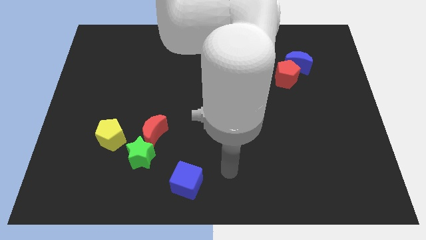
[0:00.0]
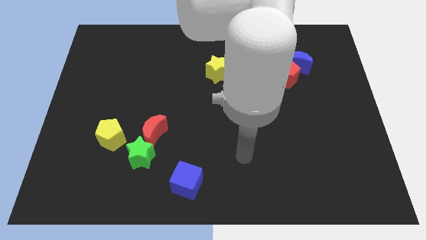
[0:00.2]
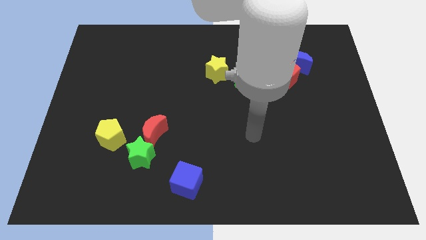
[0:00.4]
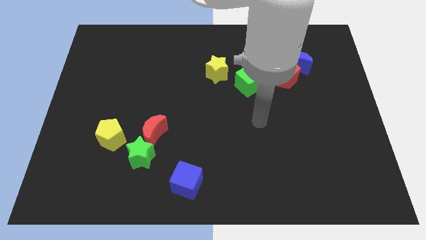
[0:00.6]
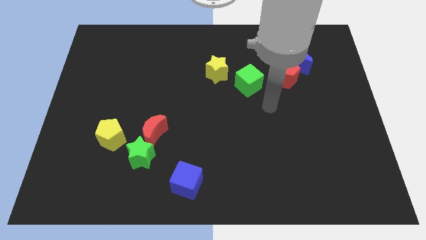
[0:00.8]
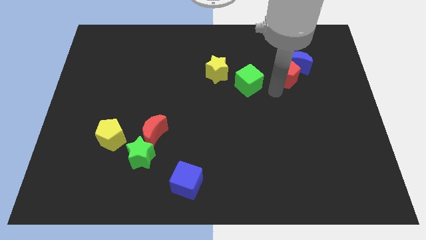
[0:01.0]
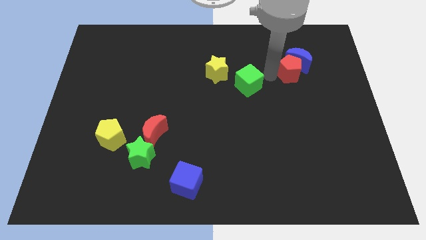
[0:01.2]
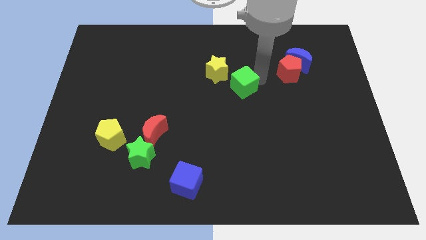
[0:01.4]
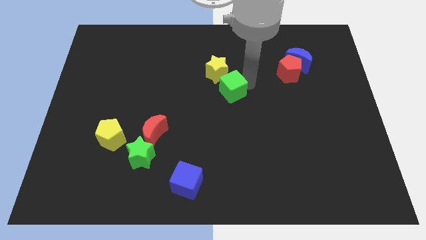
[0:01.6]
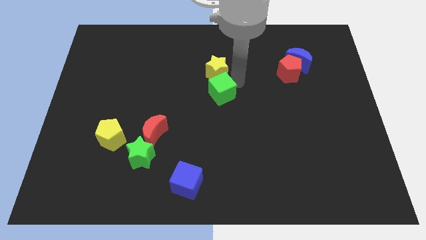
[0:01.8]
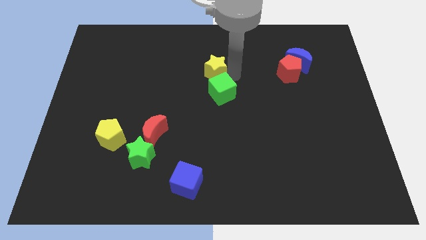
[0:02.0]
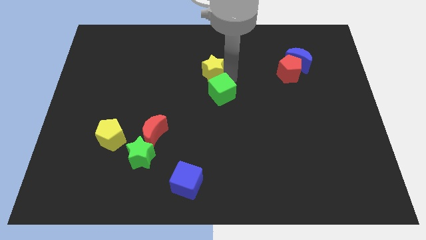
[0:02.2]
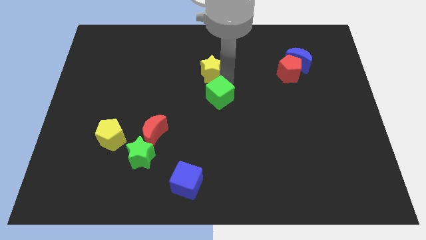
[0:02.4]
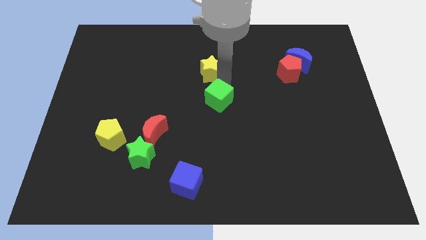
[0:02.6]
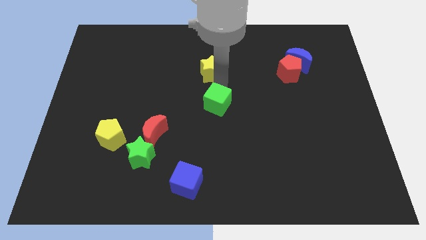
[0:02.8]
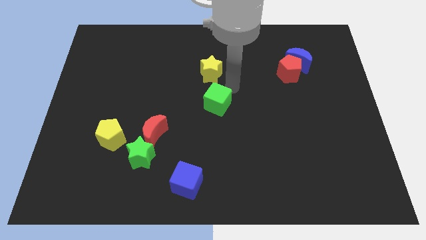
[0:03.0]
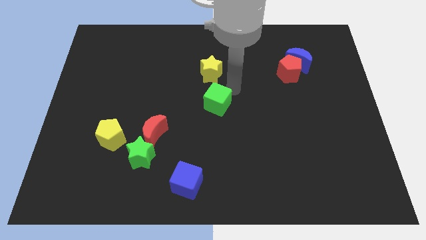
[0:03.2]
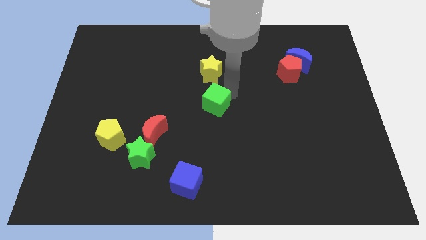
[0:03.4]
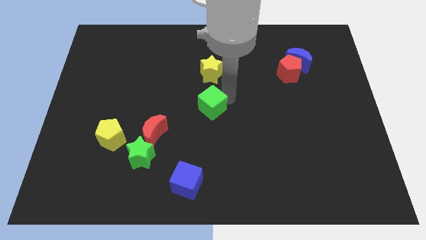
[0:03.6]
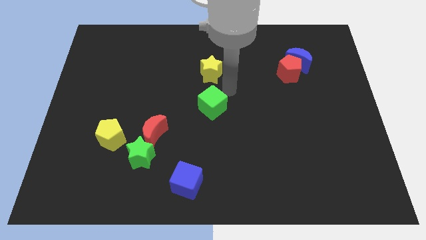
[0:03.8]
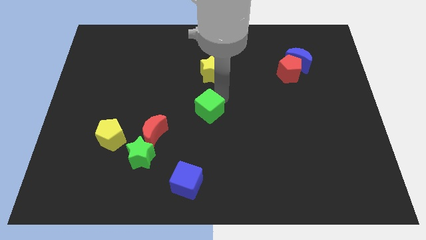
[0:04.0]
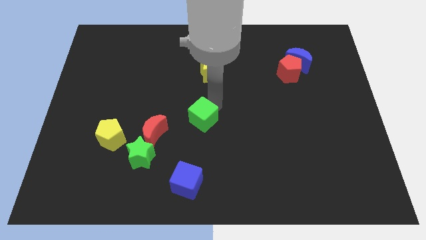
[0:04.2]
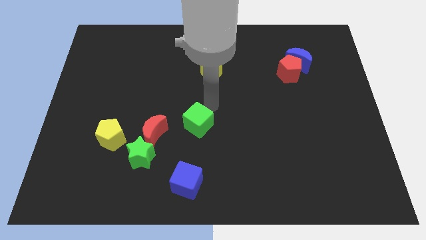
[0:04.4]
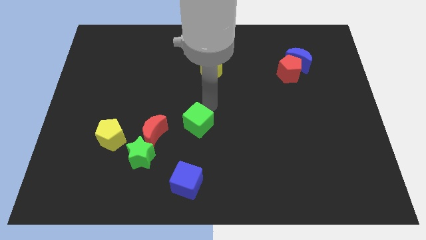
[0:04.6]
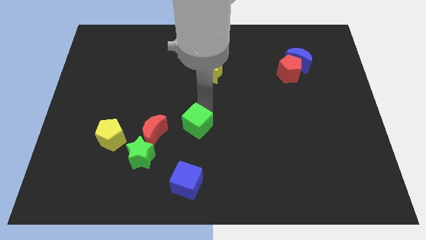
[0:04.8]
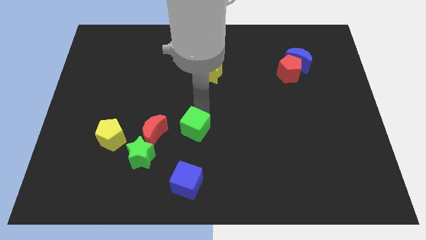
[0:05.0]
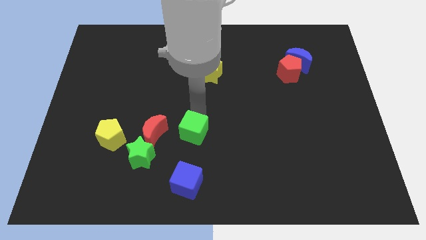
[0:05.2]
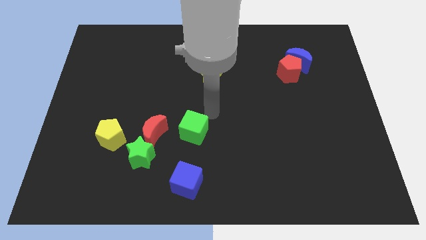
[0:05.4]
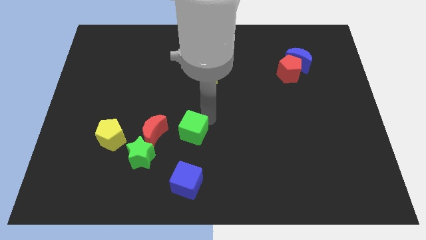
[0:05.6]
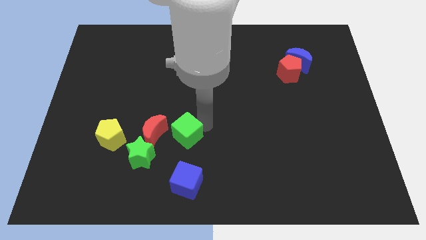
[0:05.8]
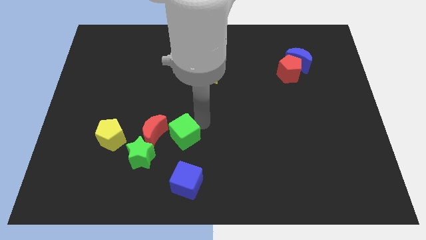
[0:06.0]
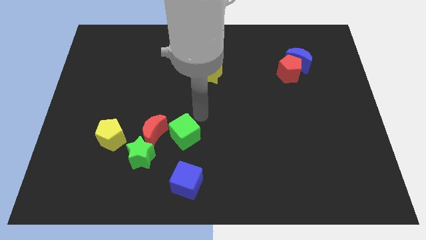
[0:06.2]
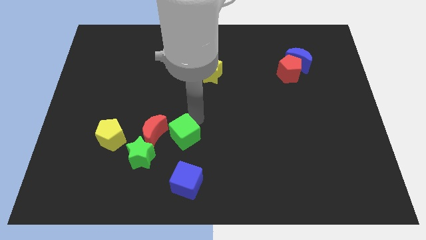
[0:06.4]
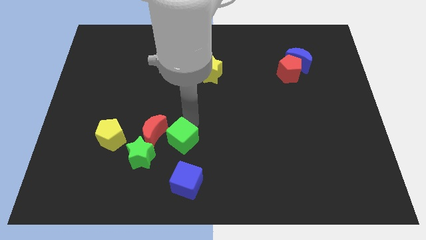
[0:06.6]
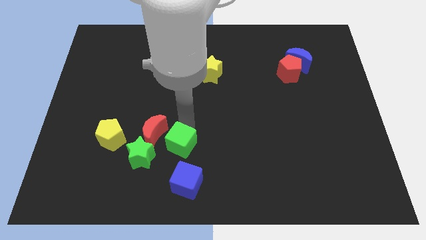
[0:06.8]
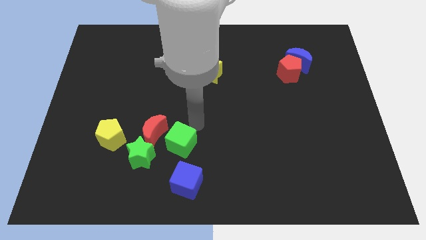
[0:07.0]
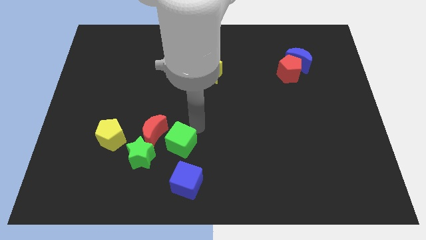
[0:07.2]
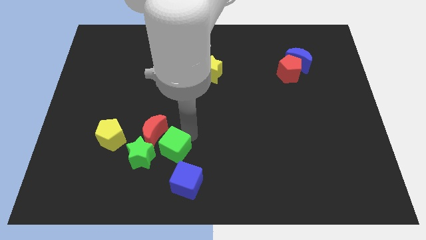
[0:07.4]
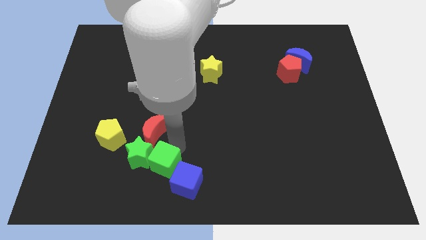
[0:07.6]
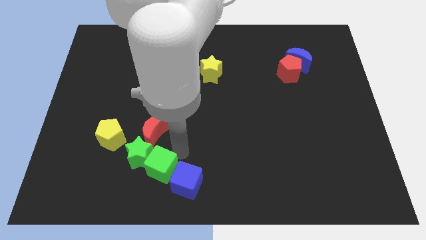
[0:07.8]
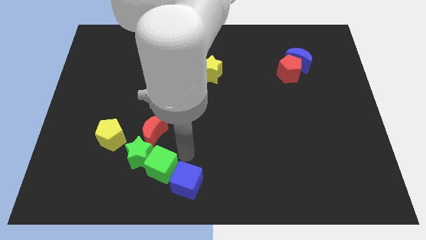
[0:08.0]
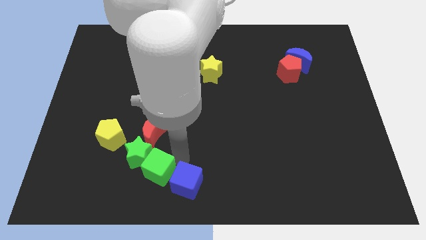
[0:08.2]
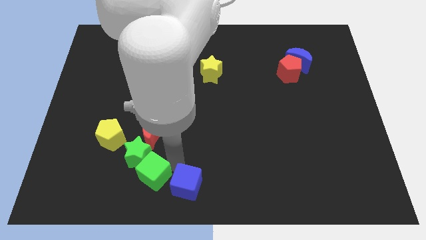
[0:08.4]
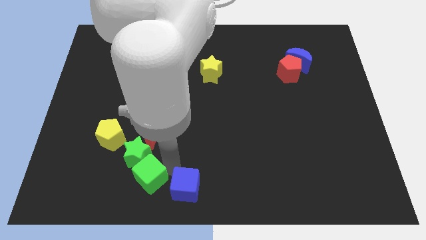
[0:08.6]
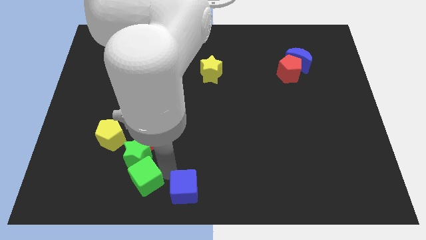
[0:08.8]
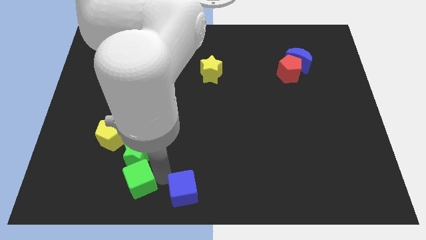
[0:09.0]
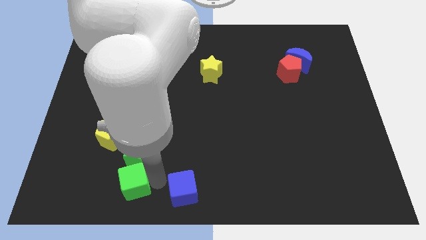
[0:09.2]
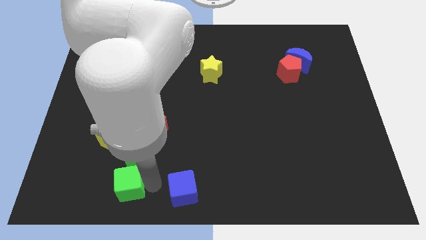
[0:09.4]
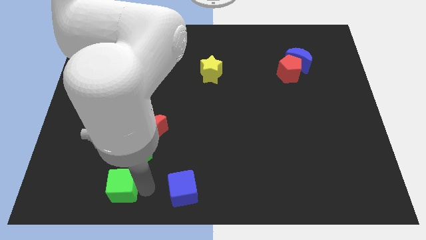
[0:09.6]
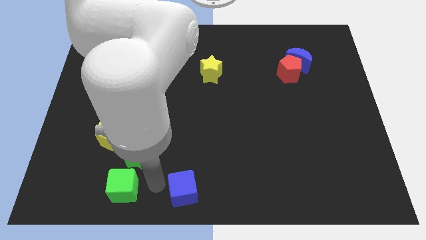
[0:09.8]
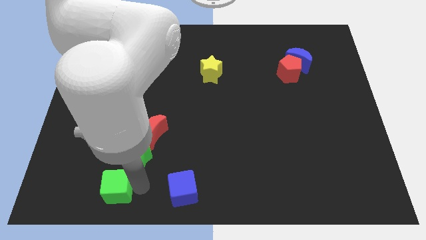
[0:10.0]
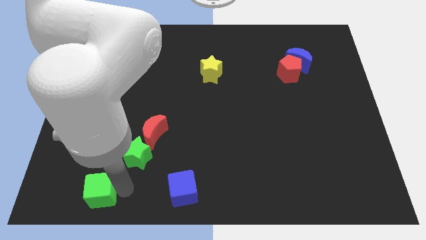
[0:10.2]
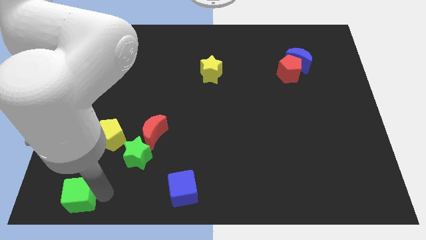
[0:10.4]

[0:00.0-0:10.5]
put the green cube to the lower left corner

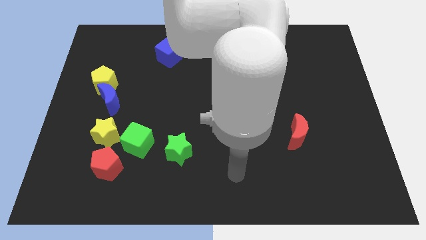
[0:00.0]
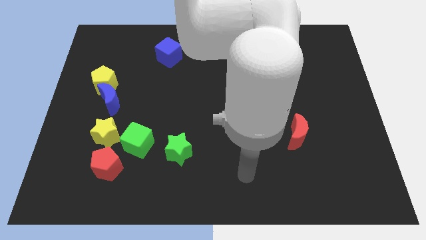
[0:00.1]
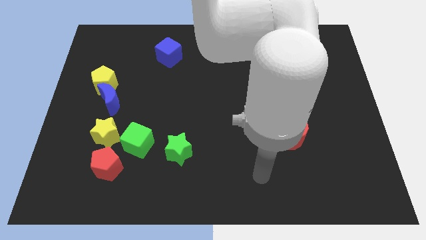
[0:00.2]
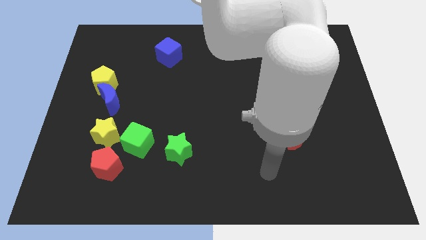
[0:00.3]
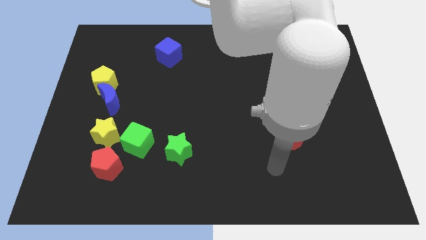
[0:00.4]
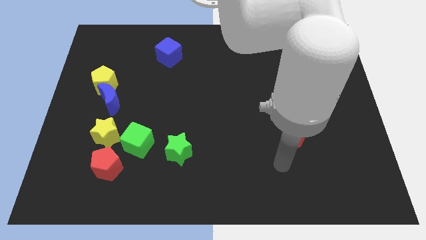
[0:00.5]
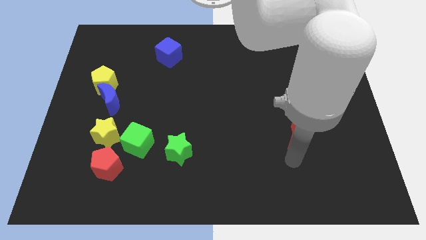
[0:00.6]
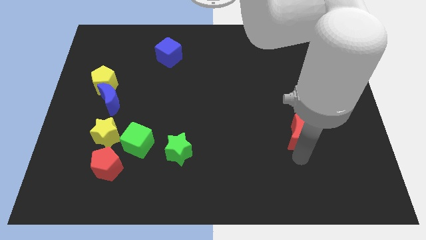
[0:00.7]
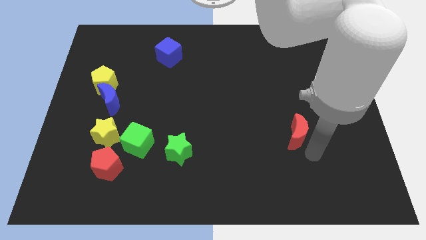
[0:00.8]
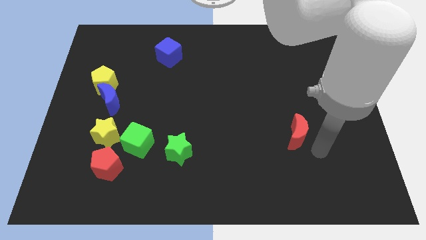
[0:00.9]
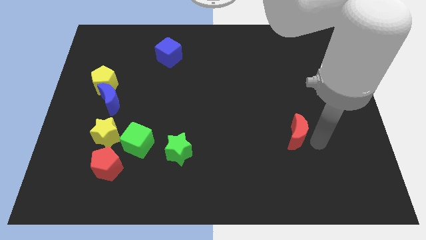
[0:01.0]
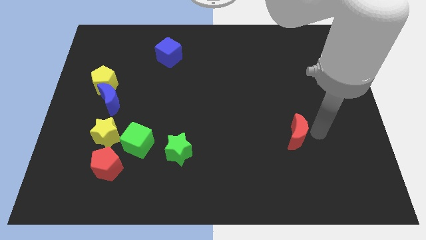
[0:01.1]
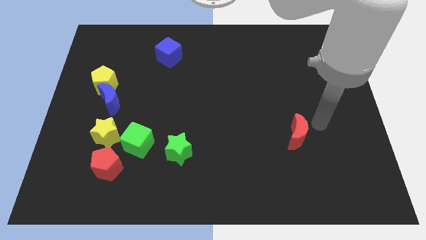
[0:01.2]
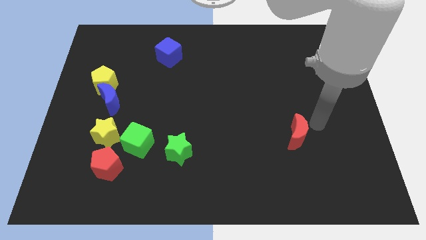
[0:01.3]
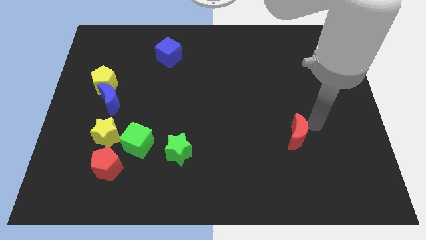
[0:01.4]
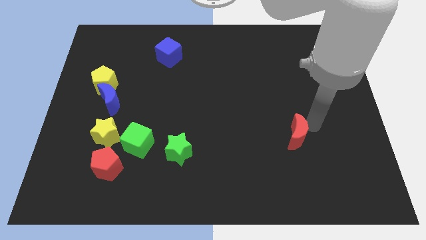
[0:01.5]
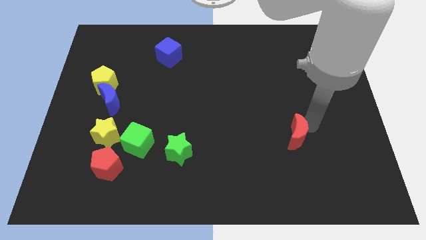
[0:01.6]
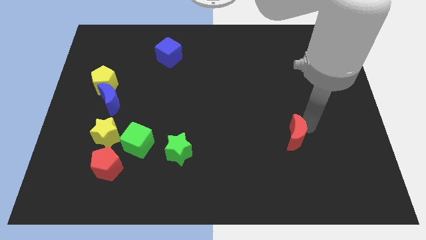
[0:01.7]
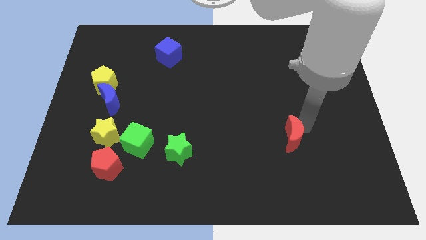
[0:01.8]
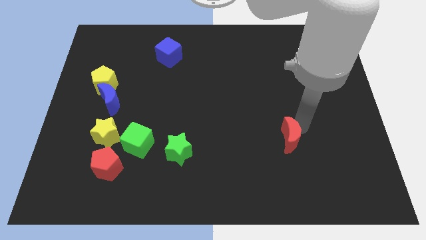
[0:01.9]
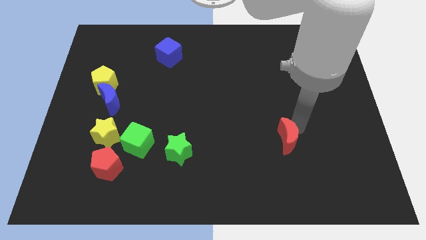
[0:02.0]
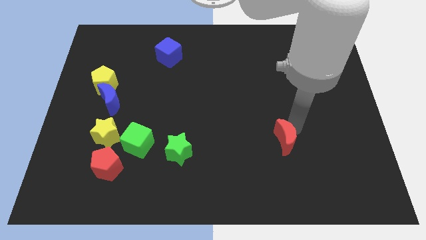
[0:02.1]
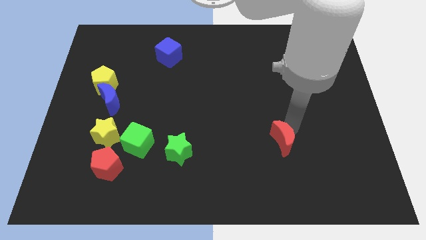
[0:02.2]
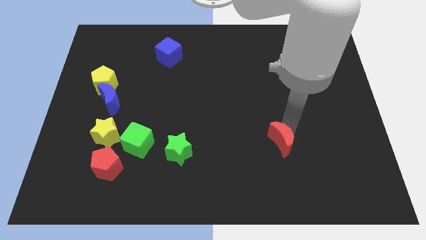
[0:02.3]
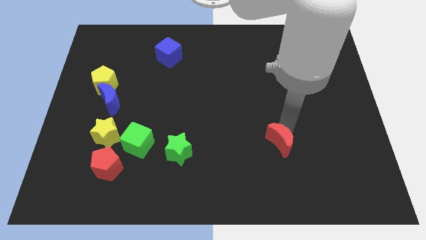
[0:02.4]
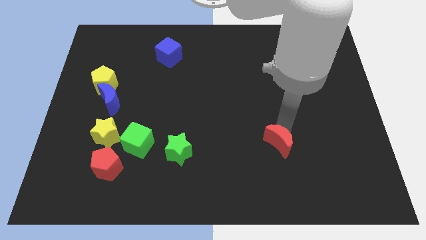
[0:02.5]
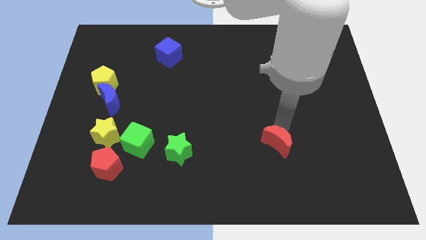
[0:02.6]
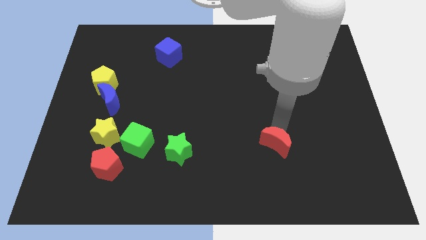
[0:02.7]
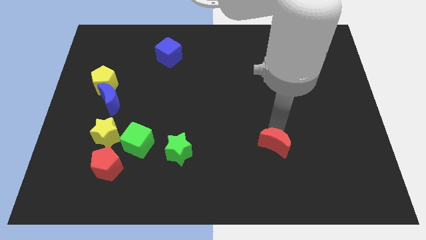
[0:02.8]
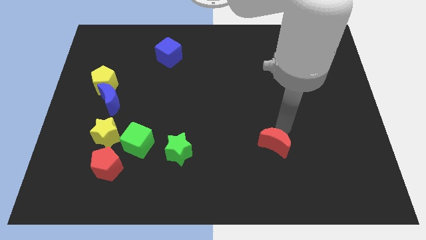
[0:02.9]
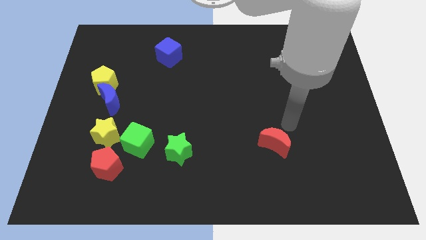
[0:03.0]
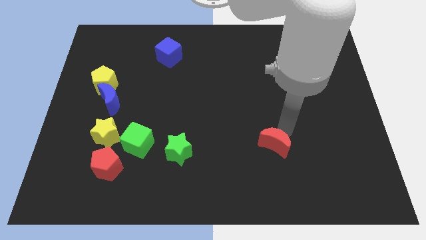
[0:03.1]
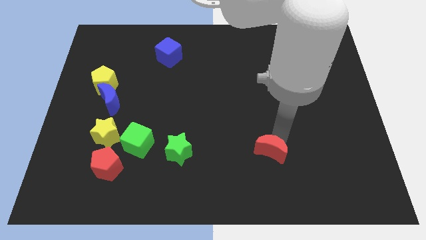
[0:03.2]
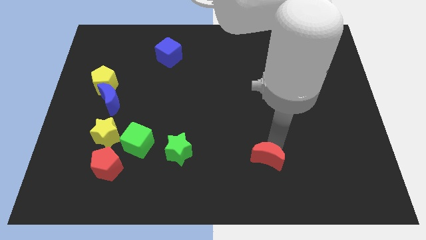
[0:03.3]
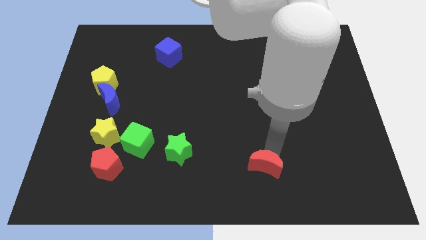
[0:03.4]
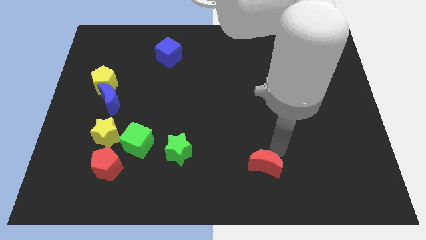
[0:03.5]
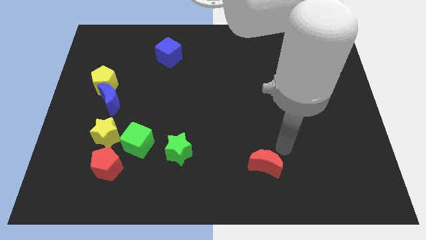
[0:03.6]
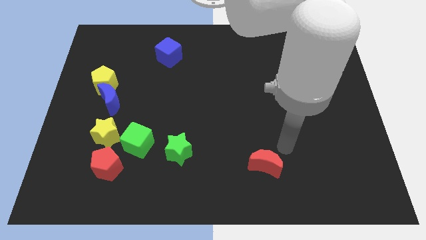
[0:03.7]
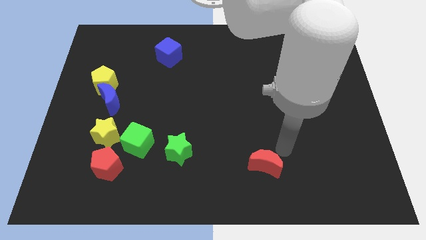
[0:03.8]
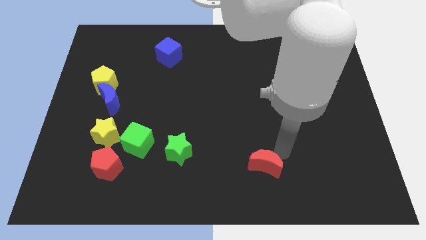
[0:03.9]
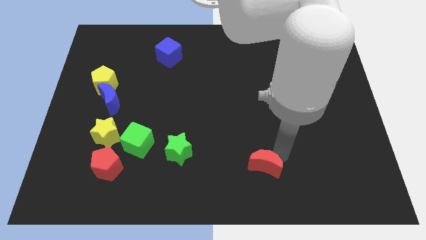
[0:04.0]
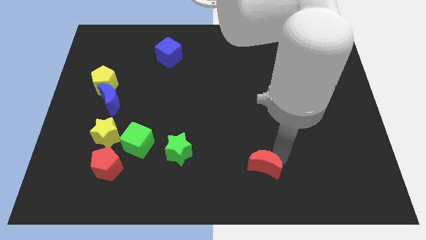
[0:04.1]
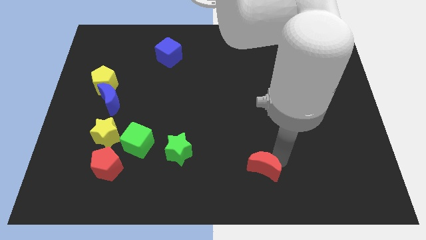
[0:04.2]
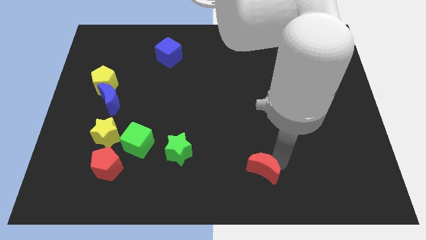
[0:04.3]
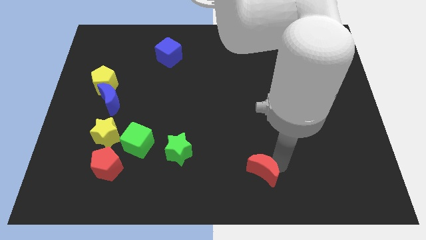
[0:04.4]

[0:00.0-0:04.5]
push the red moon to the bottom side
